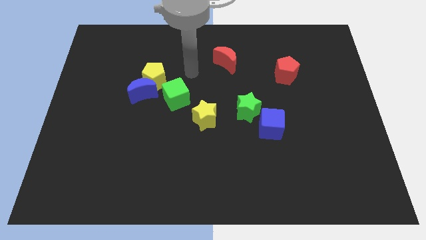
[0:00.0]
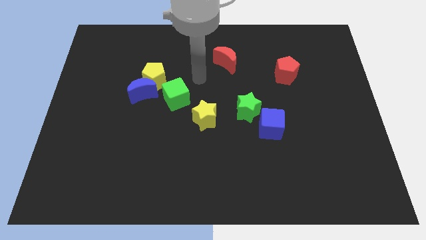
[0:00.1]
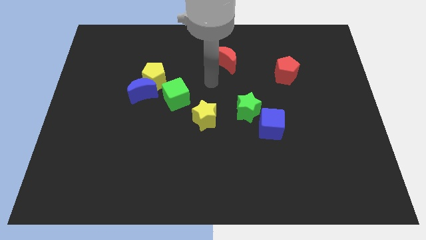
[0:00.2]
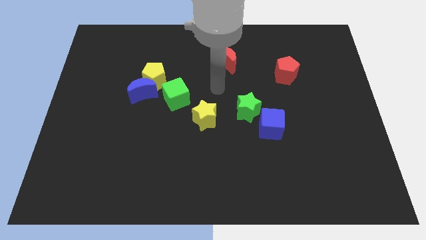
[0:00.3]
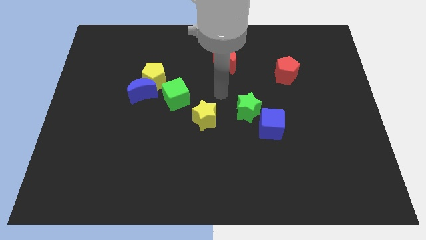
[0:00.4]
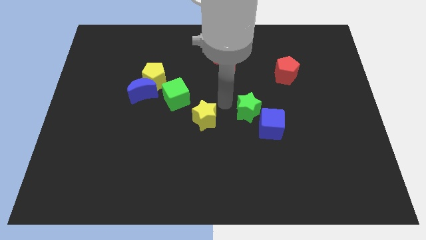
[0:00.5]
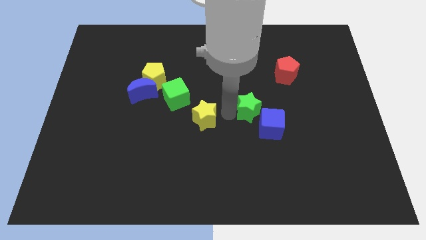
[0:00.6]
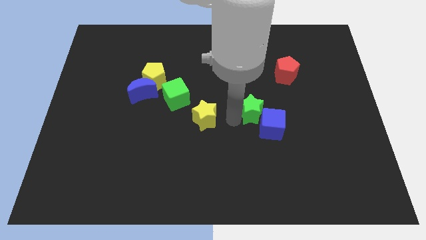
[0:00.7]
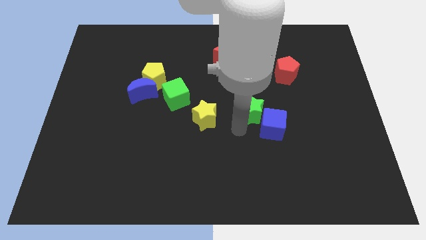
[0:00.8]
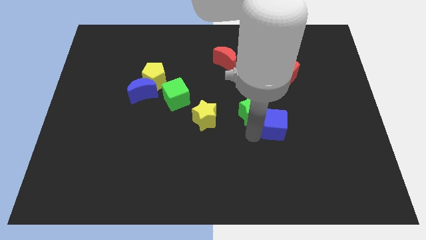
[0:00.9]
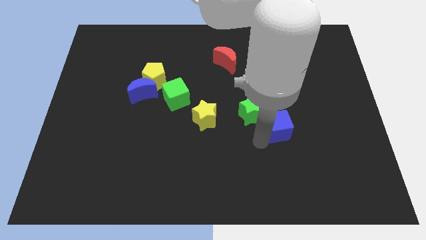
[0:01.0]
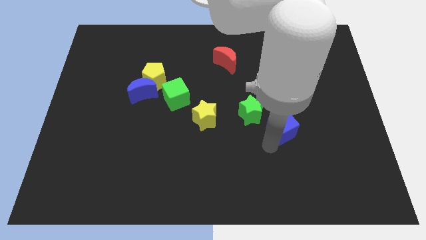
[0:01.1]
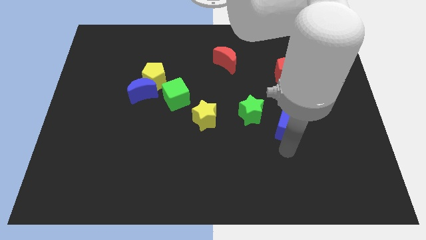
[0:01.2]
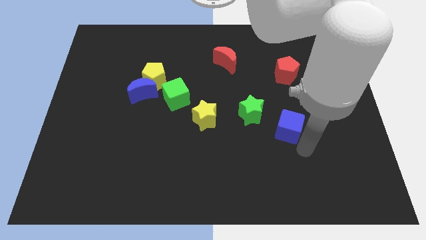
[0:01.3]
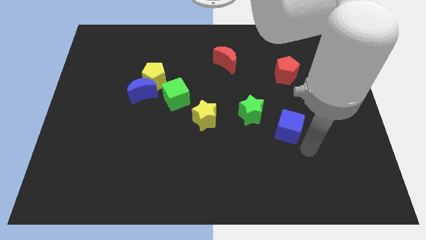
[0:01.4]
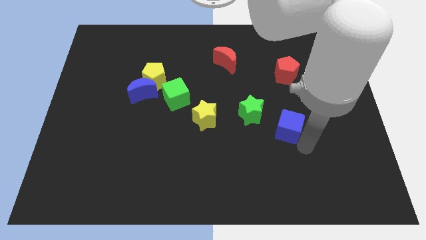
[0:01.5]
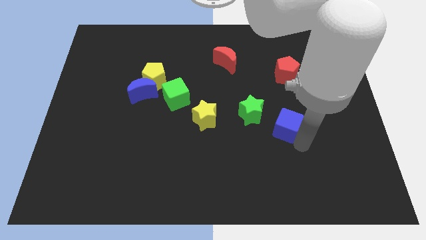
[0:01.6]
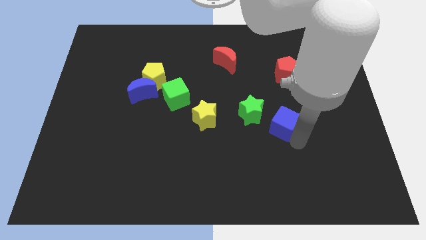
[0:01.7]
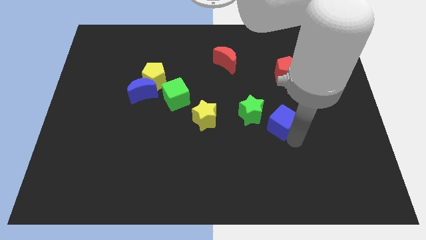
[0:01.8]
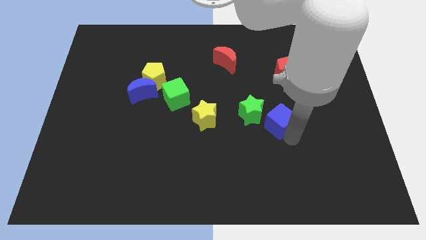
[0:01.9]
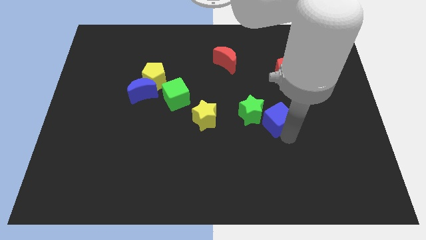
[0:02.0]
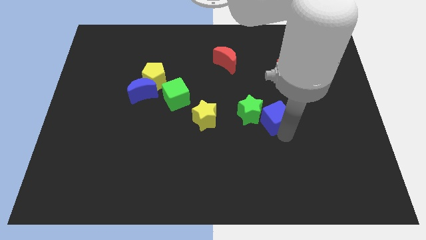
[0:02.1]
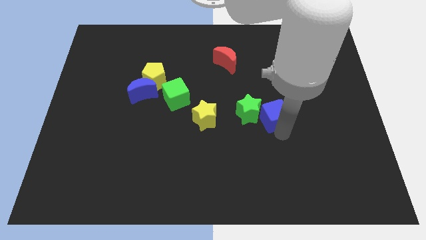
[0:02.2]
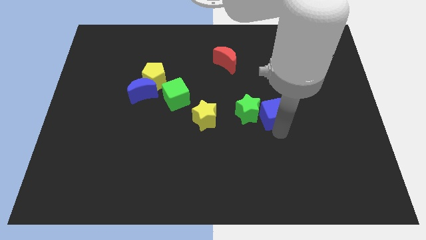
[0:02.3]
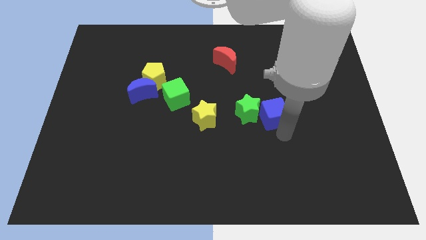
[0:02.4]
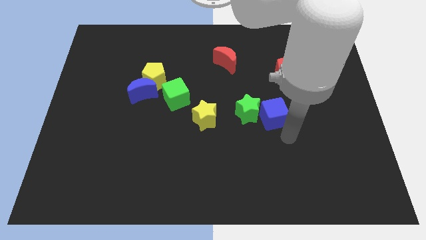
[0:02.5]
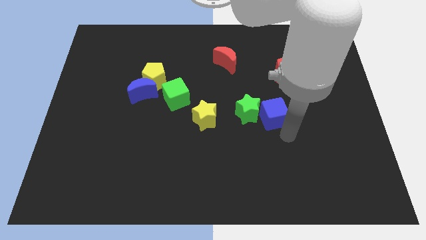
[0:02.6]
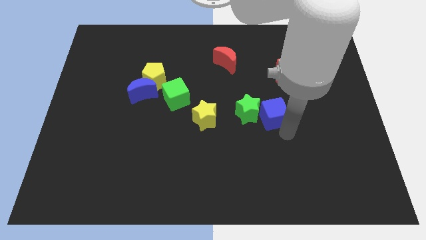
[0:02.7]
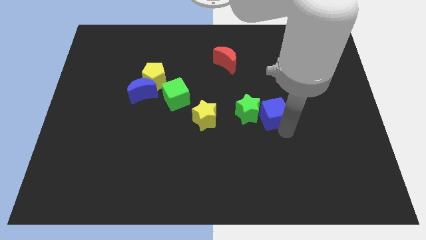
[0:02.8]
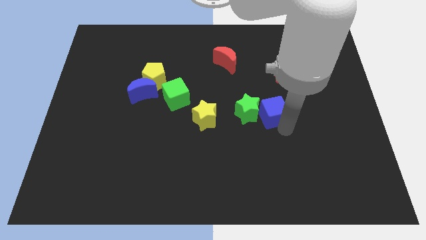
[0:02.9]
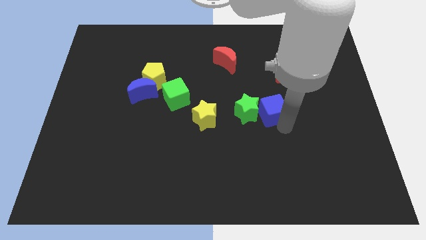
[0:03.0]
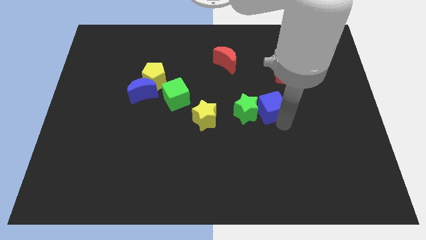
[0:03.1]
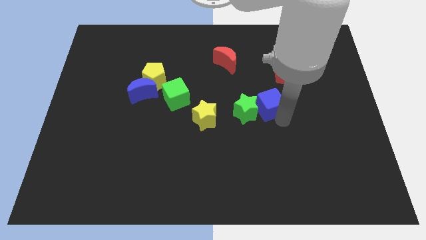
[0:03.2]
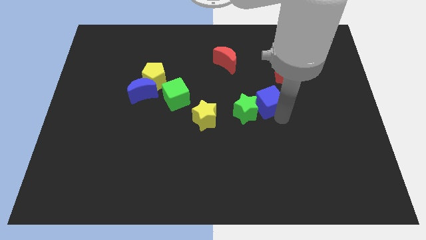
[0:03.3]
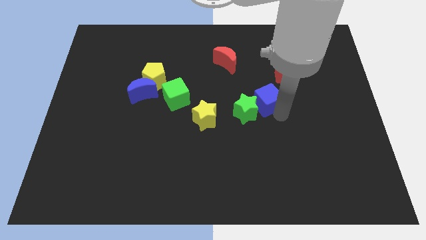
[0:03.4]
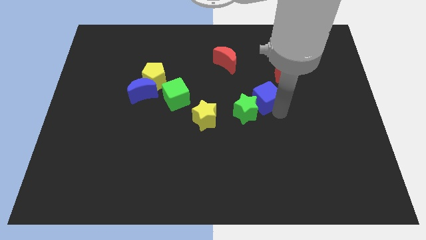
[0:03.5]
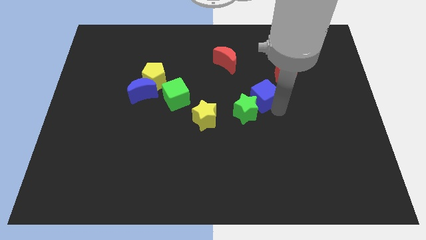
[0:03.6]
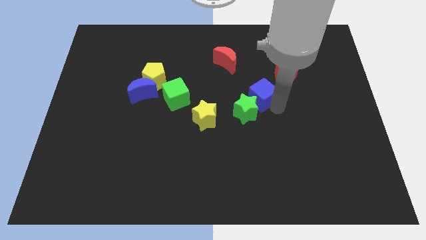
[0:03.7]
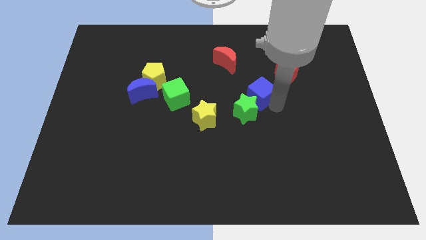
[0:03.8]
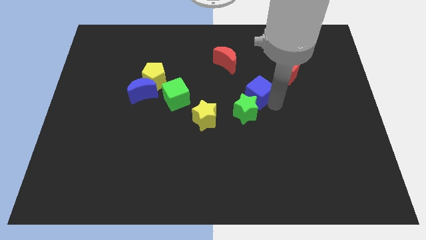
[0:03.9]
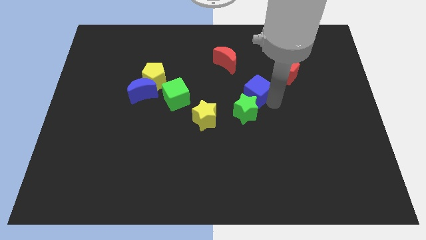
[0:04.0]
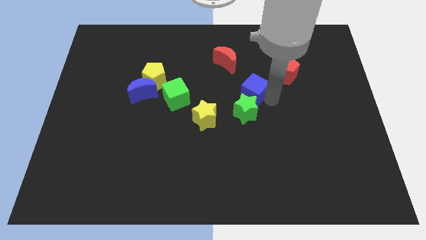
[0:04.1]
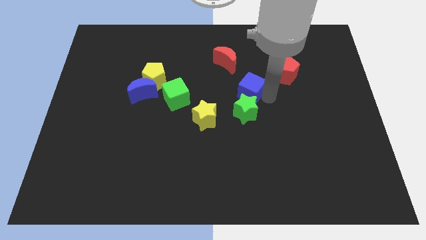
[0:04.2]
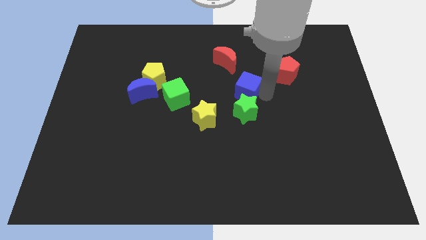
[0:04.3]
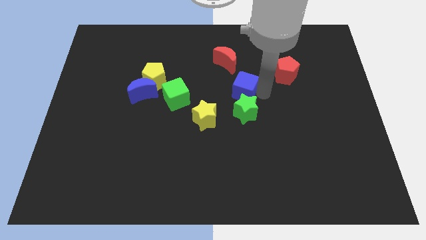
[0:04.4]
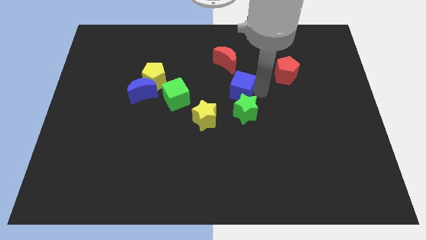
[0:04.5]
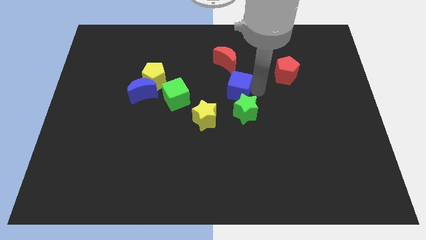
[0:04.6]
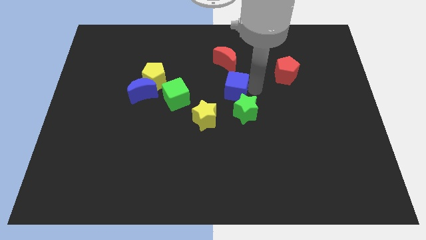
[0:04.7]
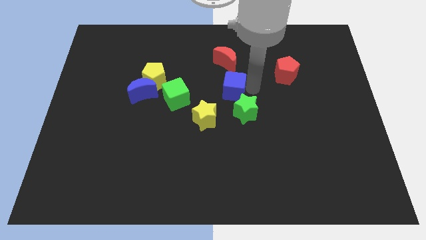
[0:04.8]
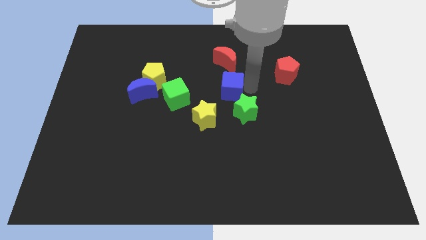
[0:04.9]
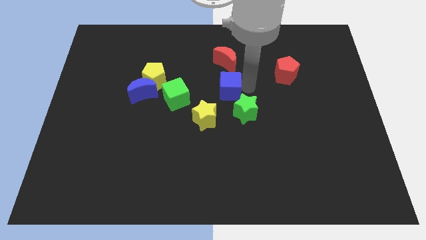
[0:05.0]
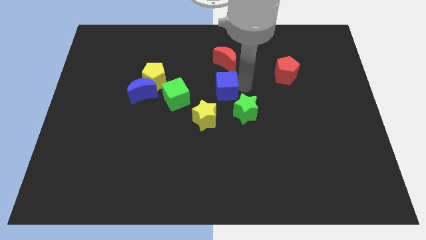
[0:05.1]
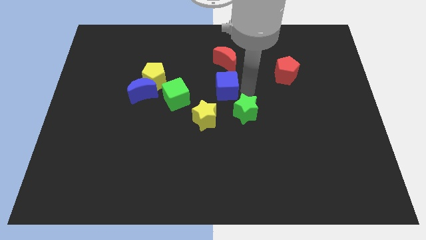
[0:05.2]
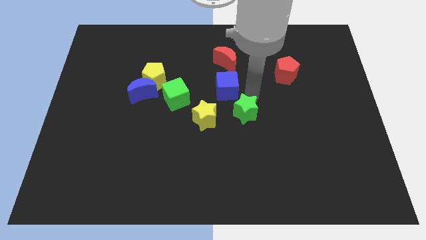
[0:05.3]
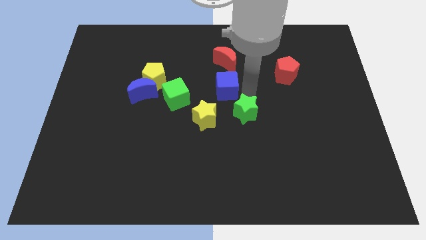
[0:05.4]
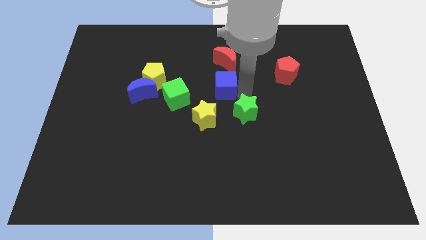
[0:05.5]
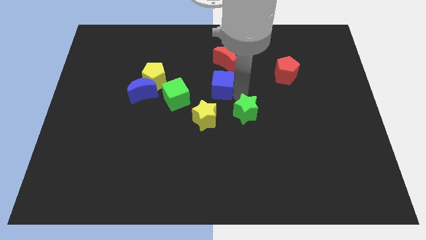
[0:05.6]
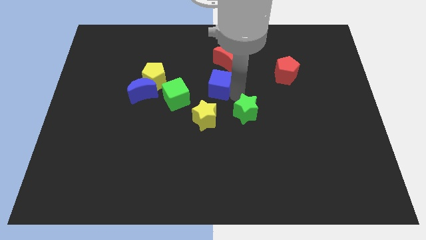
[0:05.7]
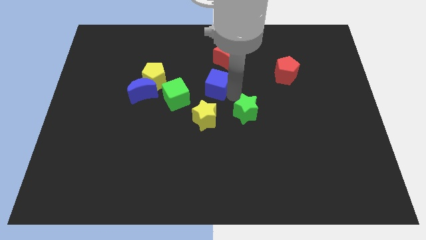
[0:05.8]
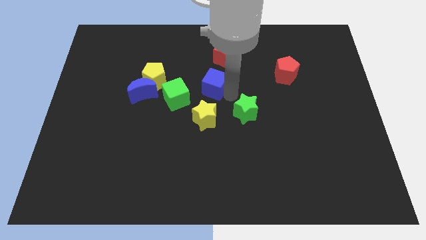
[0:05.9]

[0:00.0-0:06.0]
move the blue cube to the right of the yellow pentagon

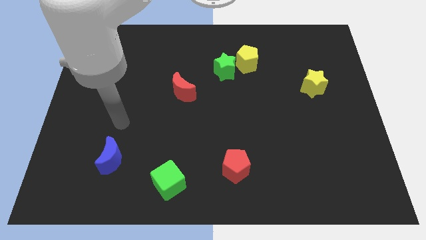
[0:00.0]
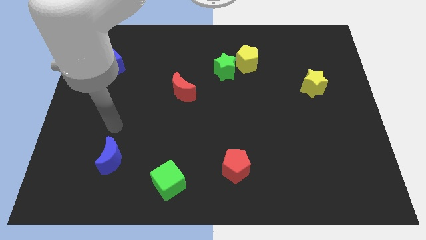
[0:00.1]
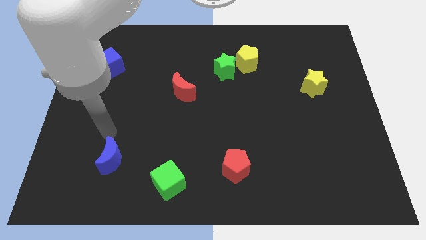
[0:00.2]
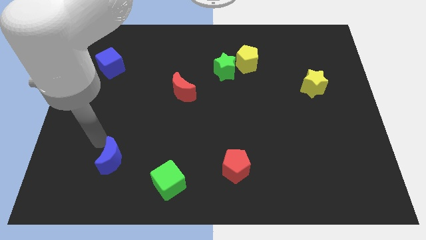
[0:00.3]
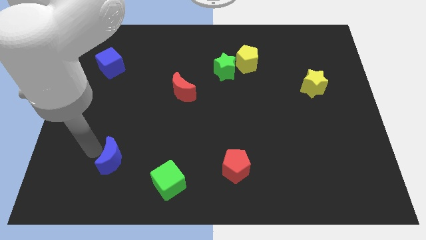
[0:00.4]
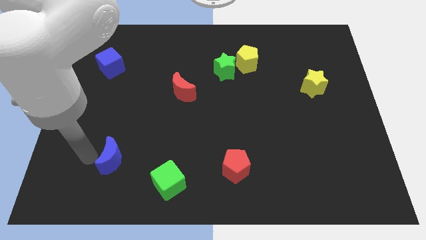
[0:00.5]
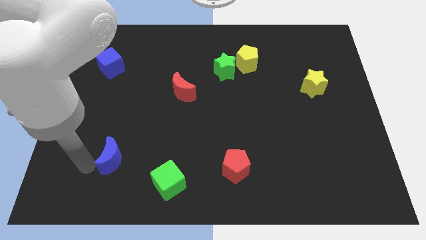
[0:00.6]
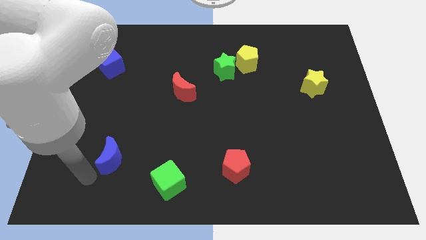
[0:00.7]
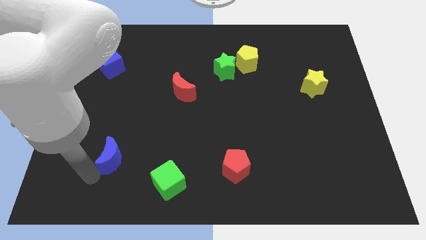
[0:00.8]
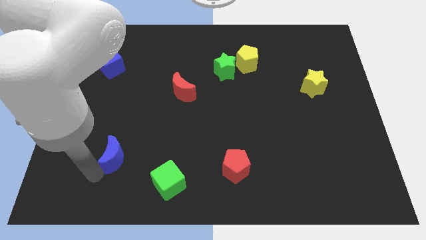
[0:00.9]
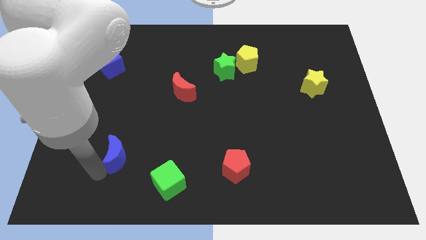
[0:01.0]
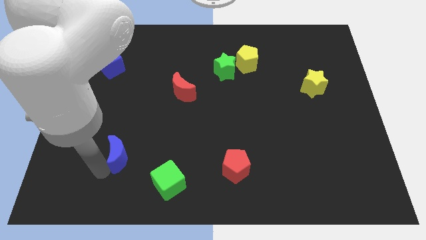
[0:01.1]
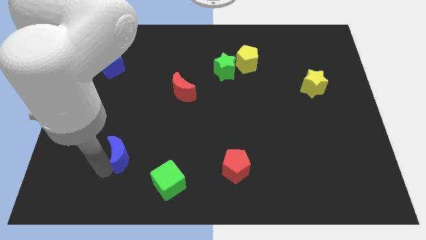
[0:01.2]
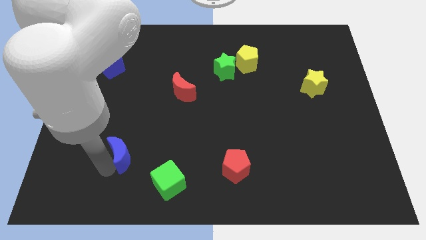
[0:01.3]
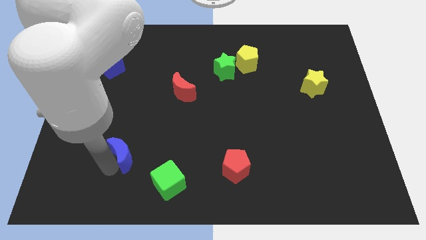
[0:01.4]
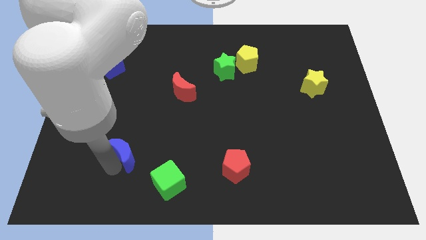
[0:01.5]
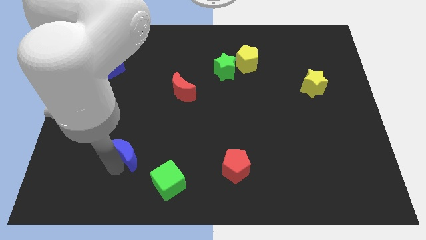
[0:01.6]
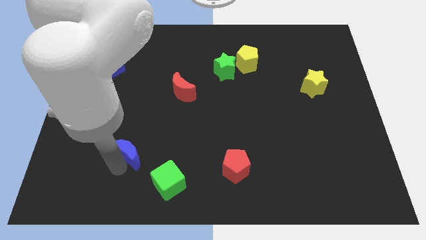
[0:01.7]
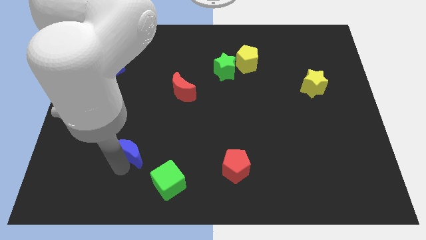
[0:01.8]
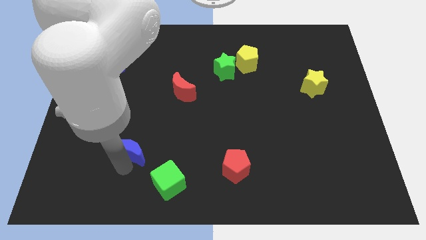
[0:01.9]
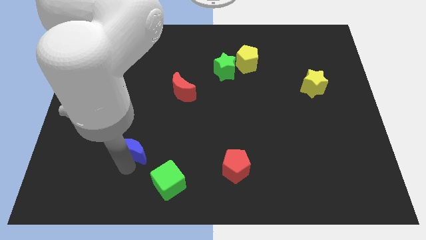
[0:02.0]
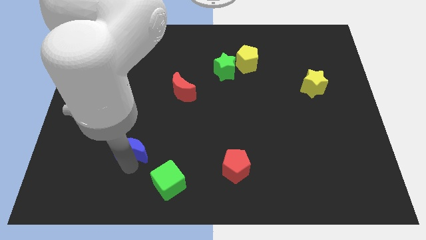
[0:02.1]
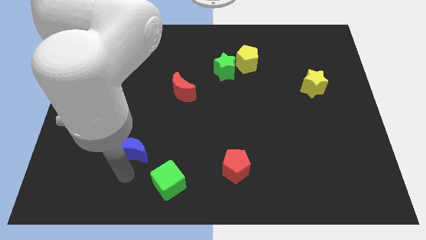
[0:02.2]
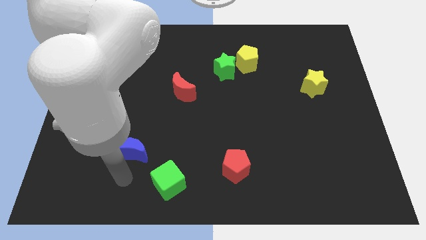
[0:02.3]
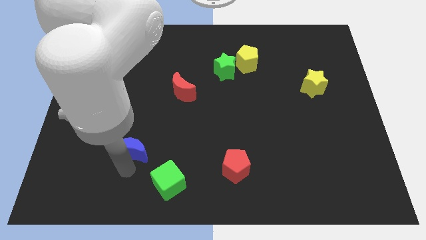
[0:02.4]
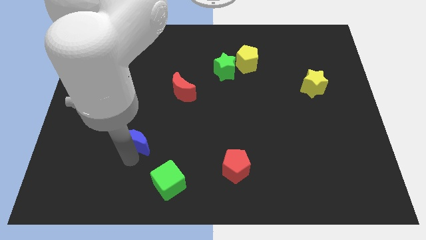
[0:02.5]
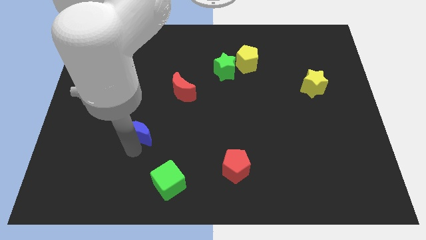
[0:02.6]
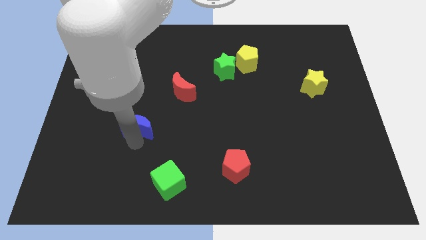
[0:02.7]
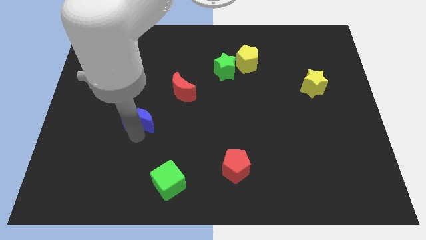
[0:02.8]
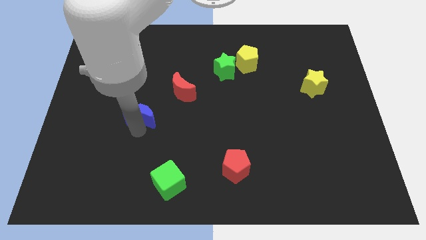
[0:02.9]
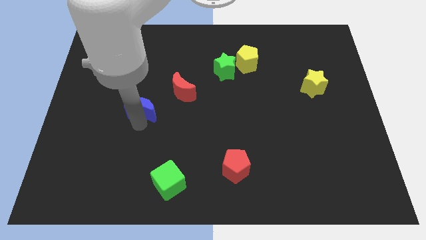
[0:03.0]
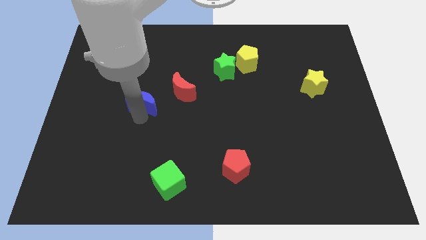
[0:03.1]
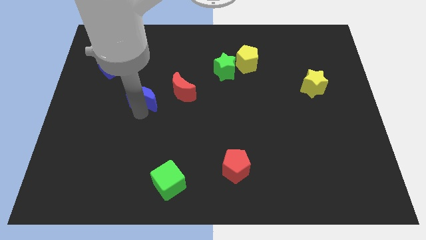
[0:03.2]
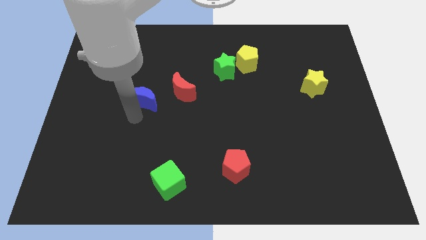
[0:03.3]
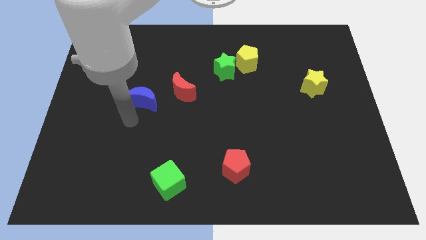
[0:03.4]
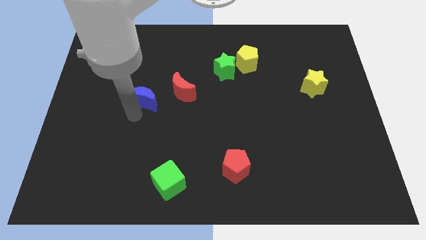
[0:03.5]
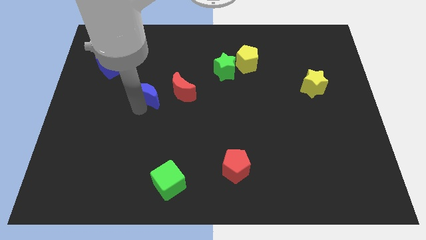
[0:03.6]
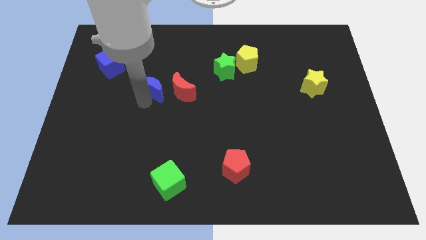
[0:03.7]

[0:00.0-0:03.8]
move the blue moon to the top left side of the red moon
